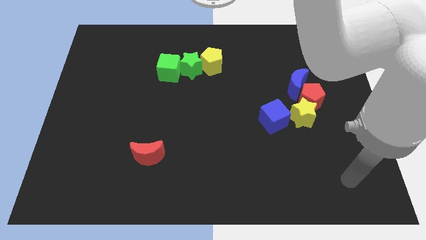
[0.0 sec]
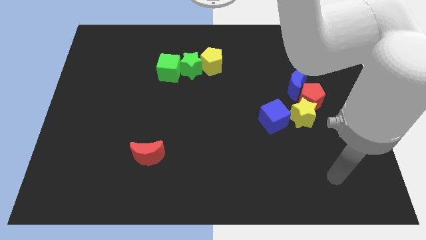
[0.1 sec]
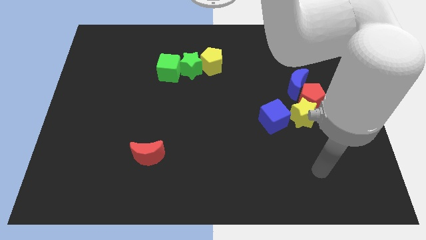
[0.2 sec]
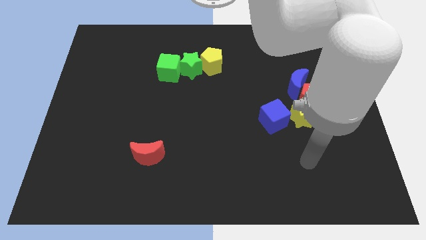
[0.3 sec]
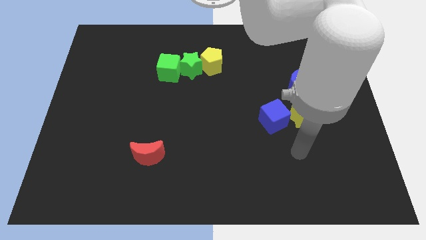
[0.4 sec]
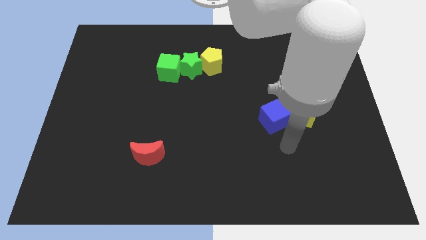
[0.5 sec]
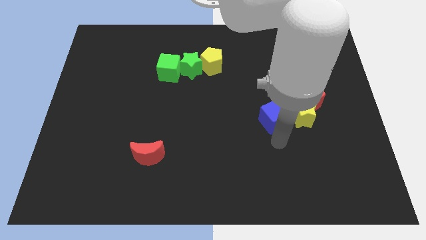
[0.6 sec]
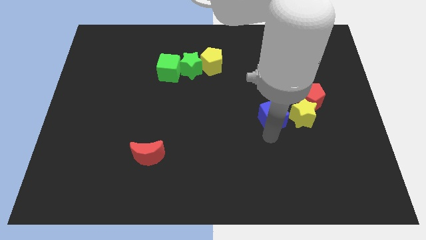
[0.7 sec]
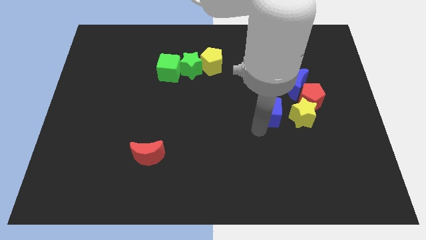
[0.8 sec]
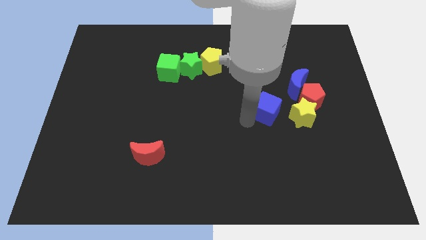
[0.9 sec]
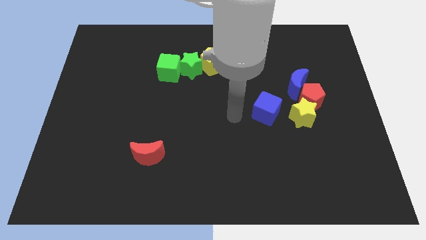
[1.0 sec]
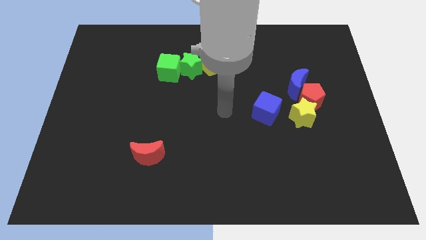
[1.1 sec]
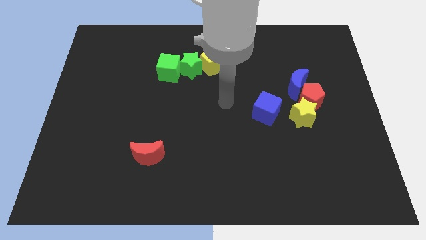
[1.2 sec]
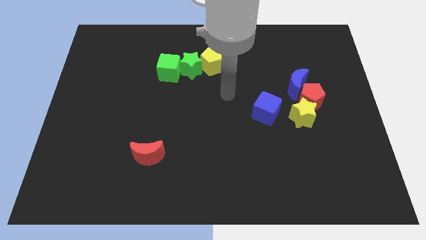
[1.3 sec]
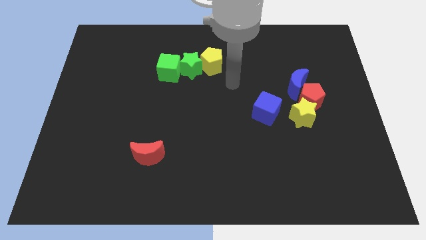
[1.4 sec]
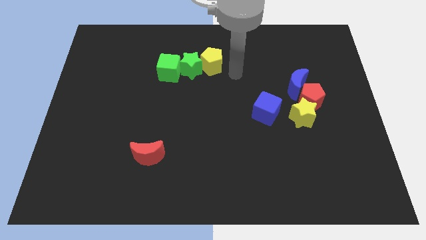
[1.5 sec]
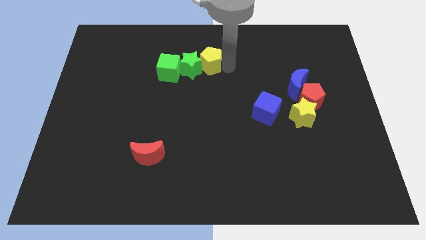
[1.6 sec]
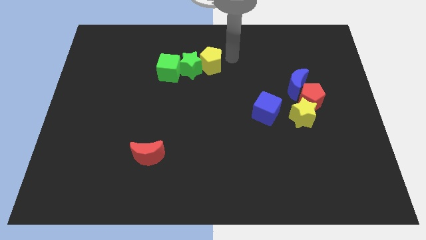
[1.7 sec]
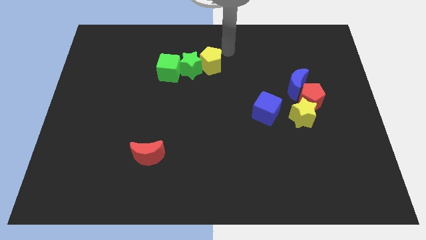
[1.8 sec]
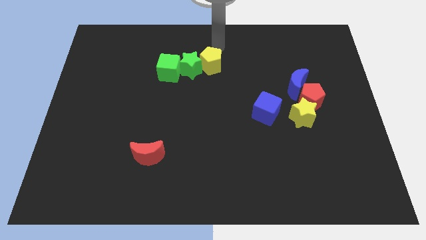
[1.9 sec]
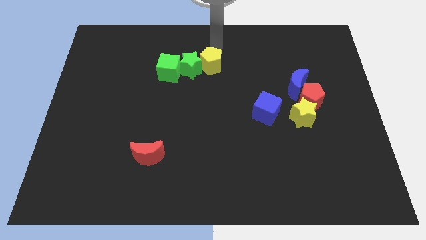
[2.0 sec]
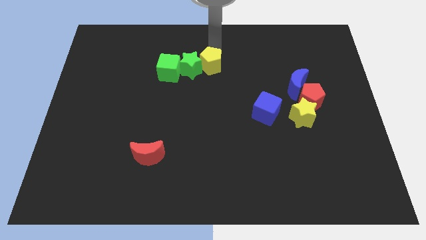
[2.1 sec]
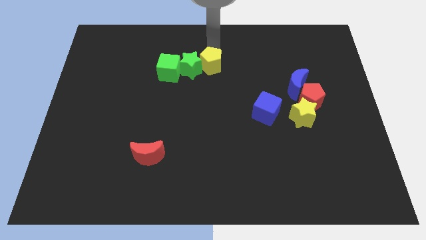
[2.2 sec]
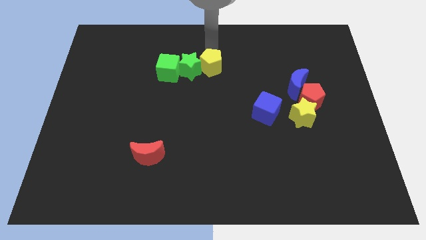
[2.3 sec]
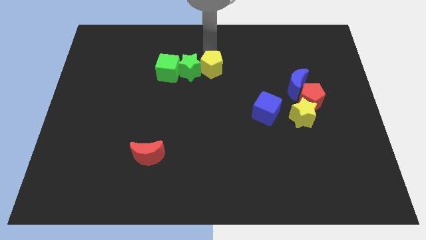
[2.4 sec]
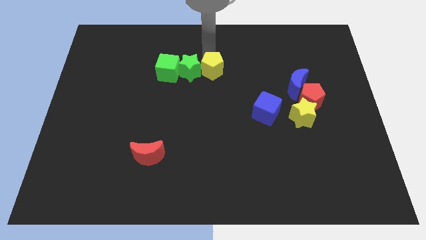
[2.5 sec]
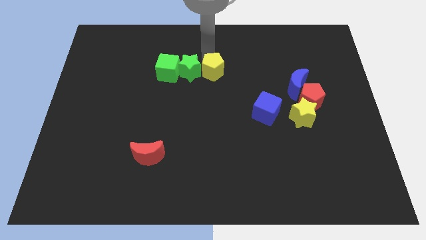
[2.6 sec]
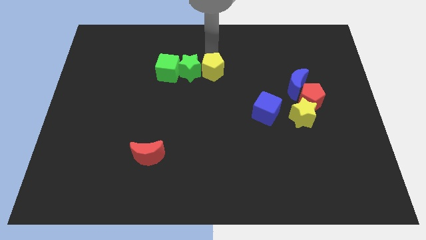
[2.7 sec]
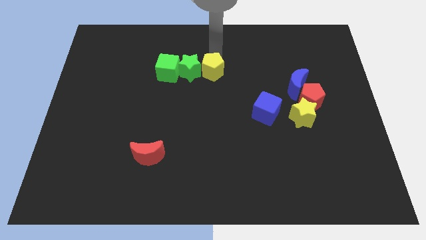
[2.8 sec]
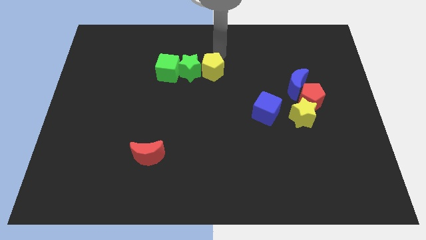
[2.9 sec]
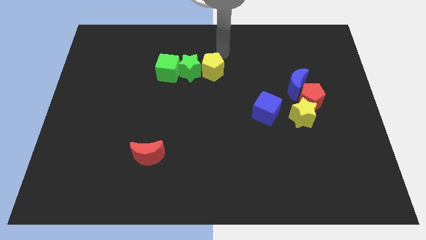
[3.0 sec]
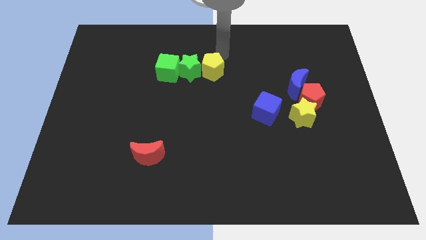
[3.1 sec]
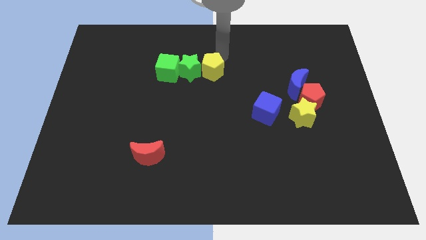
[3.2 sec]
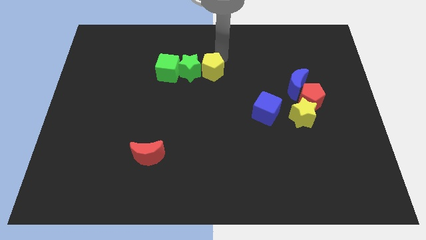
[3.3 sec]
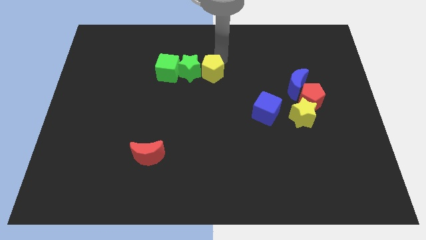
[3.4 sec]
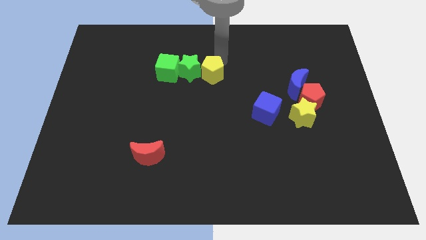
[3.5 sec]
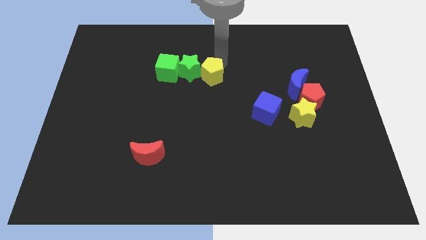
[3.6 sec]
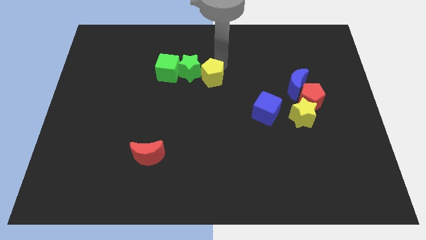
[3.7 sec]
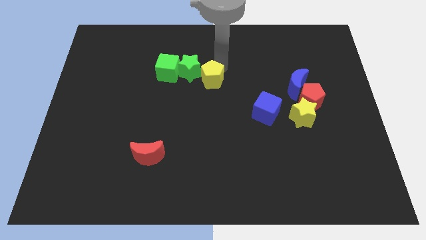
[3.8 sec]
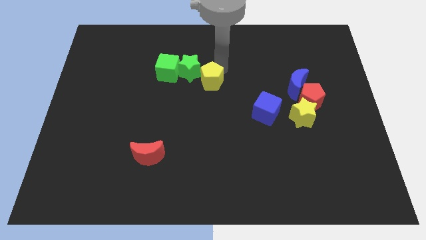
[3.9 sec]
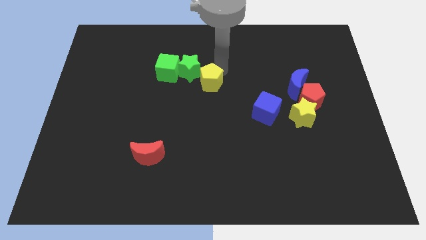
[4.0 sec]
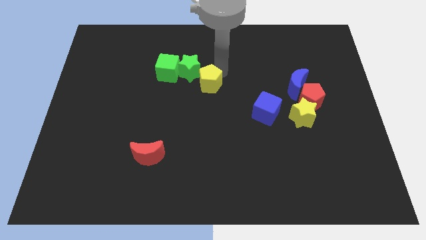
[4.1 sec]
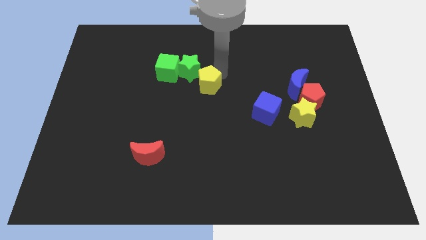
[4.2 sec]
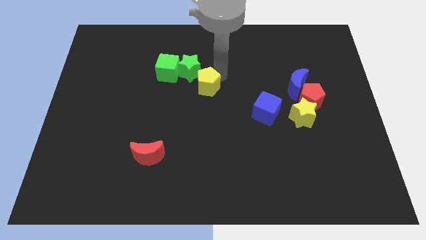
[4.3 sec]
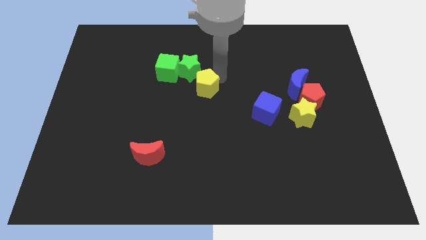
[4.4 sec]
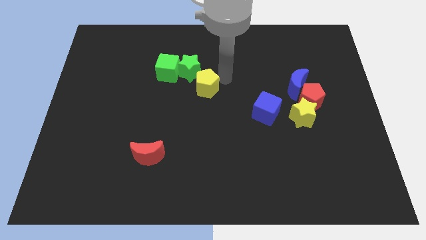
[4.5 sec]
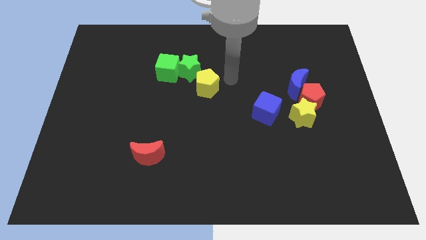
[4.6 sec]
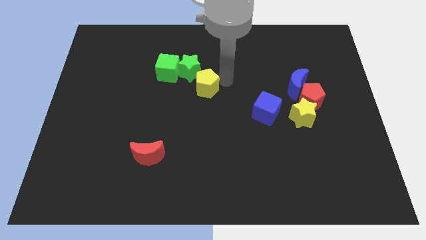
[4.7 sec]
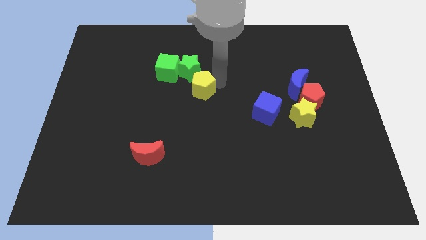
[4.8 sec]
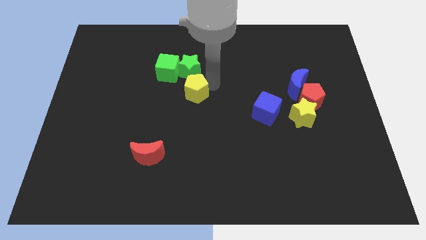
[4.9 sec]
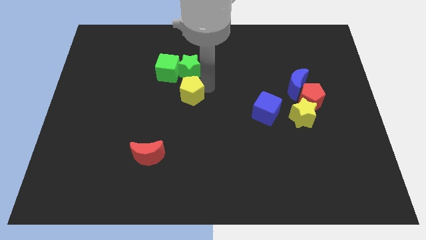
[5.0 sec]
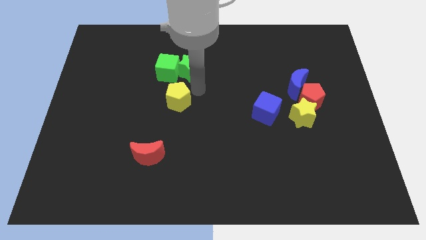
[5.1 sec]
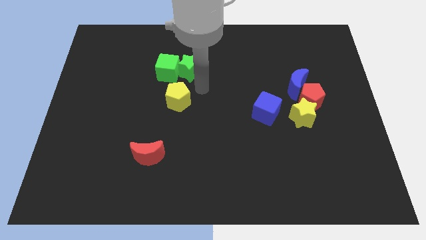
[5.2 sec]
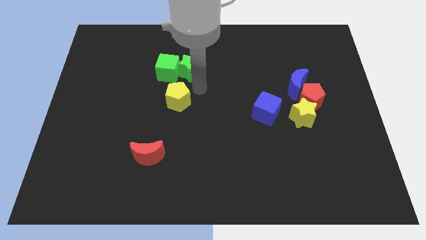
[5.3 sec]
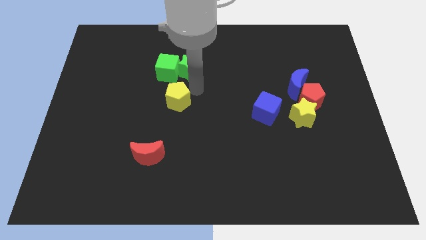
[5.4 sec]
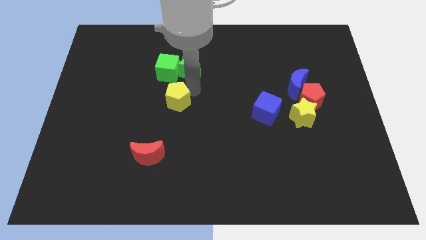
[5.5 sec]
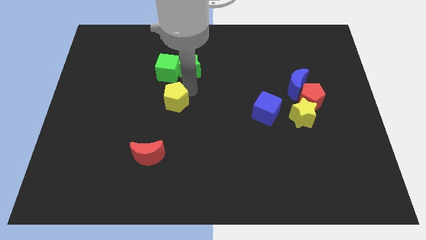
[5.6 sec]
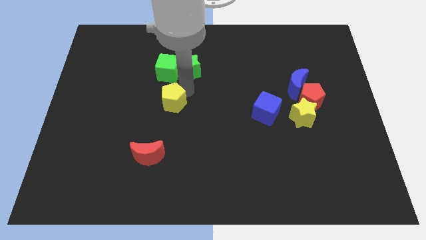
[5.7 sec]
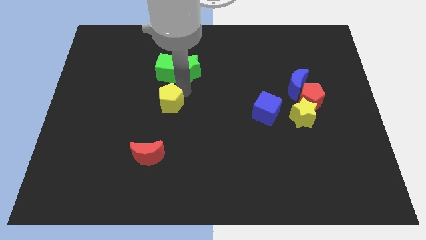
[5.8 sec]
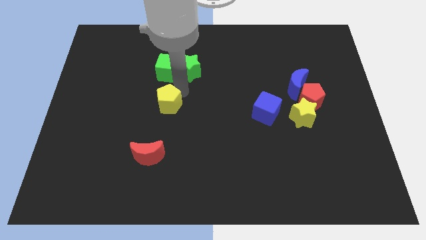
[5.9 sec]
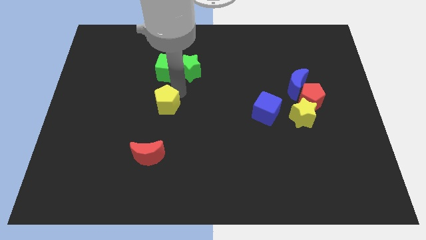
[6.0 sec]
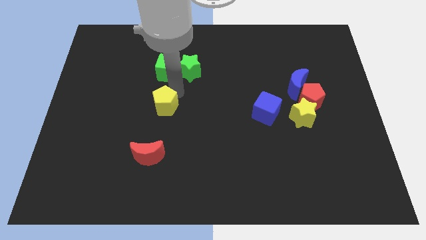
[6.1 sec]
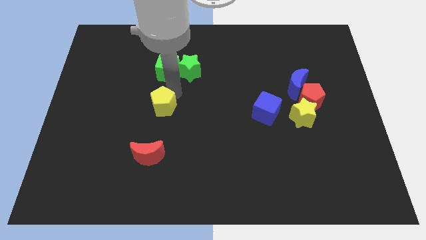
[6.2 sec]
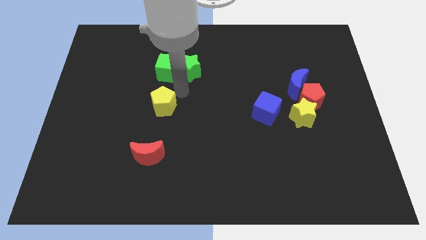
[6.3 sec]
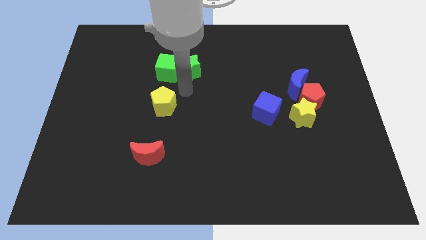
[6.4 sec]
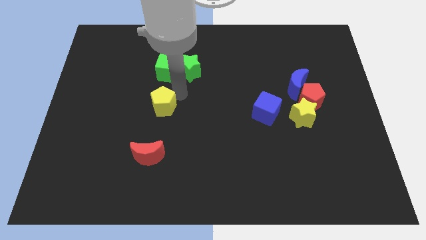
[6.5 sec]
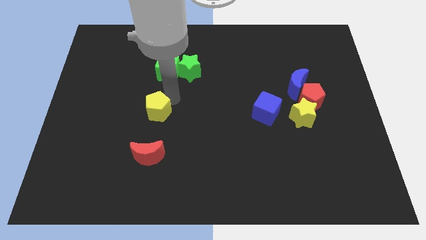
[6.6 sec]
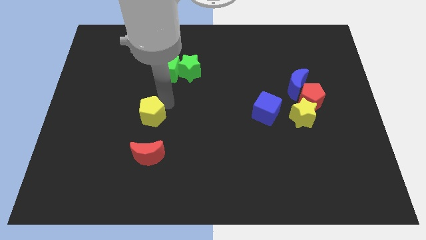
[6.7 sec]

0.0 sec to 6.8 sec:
move the yellow pentagon diagonally downwards and to the left

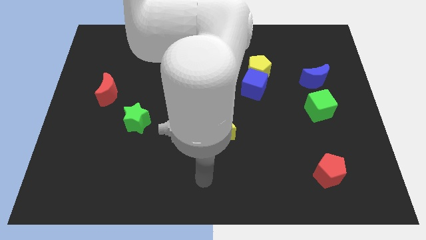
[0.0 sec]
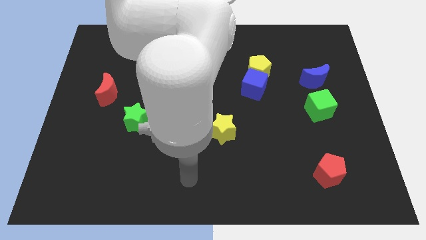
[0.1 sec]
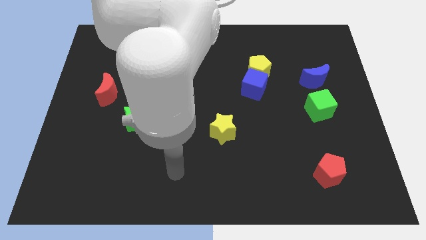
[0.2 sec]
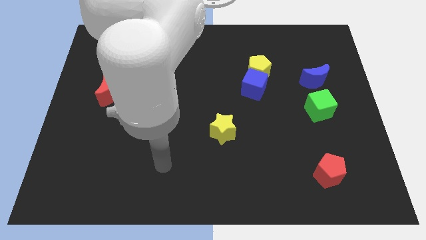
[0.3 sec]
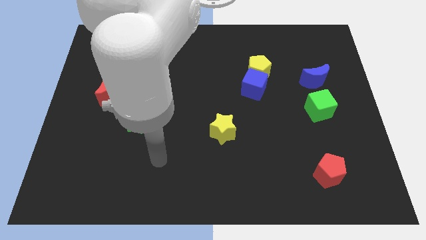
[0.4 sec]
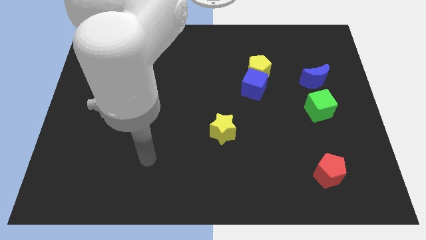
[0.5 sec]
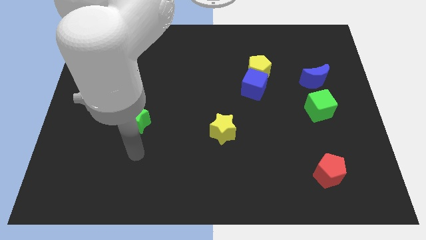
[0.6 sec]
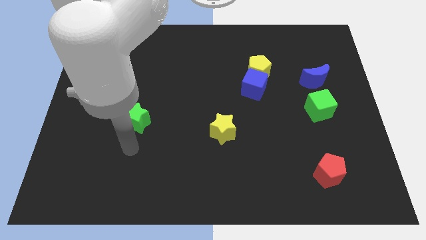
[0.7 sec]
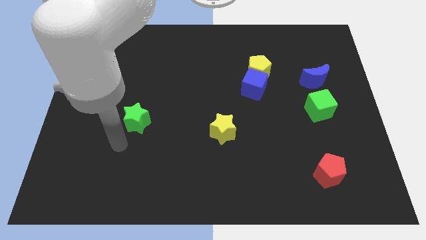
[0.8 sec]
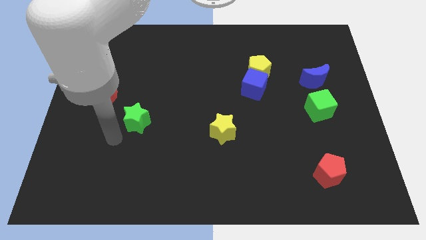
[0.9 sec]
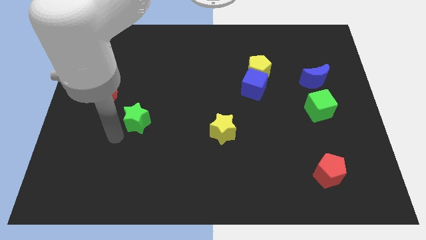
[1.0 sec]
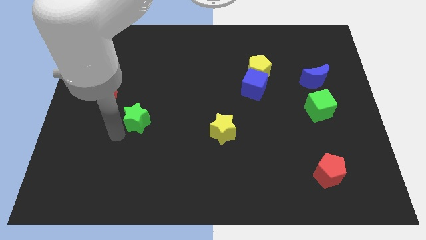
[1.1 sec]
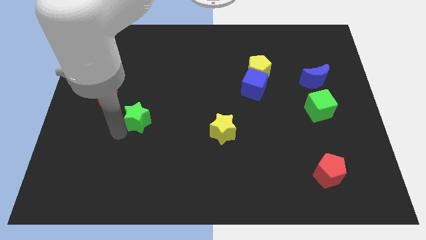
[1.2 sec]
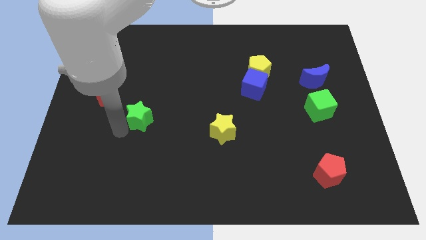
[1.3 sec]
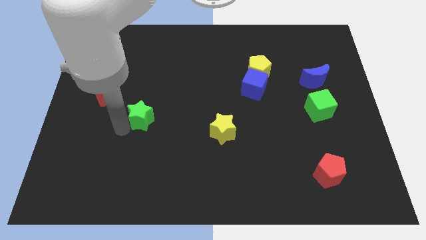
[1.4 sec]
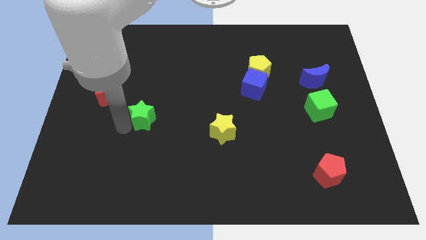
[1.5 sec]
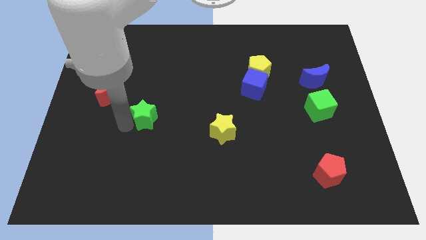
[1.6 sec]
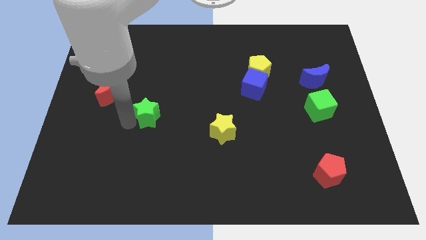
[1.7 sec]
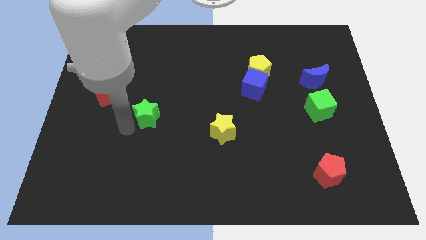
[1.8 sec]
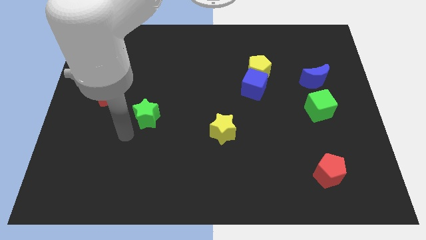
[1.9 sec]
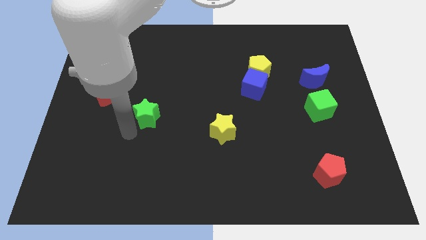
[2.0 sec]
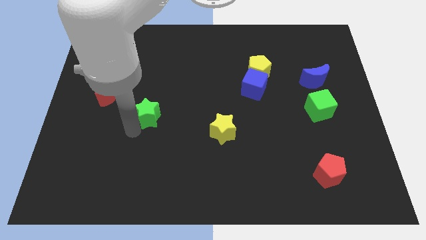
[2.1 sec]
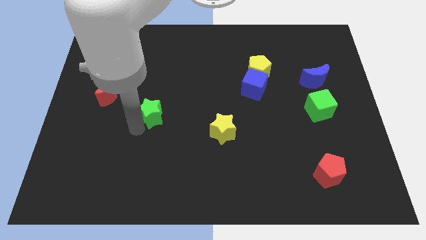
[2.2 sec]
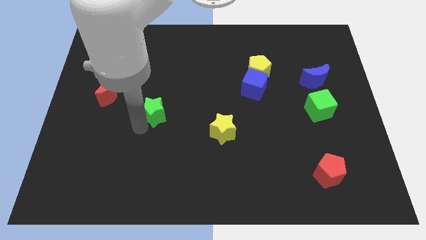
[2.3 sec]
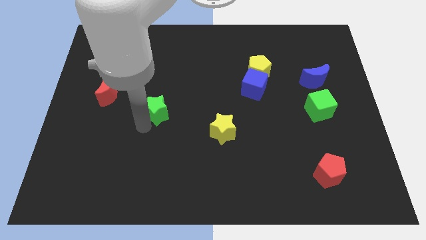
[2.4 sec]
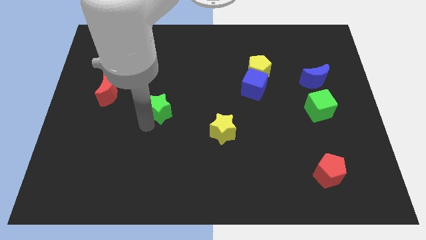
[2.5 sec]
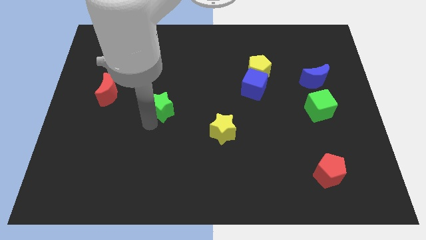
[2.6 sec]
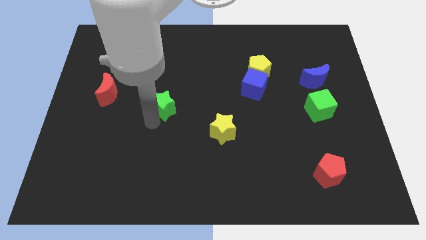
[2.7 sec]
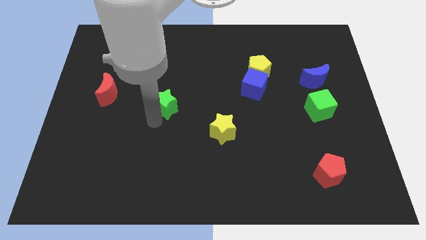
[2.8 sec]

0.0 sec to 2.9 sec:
move the green star a little up and then to the right
